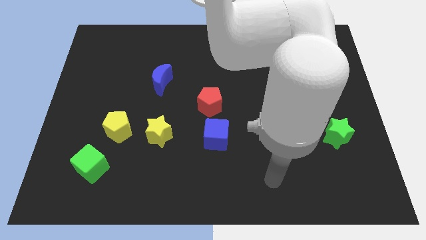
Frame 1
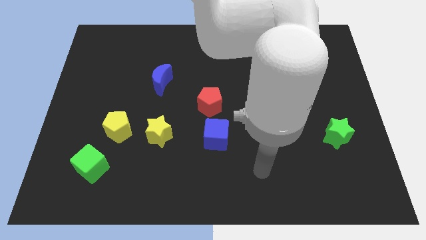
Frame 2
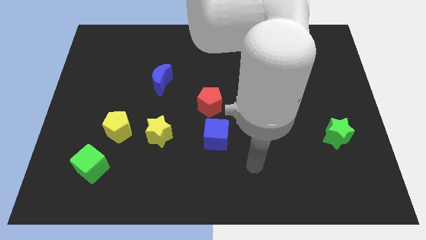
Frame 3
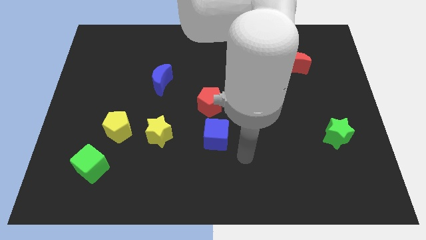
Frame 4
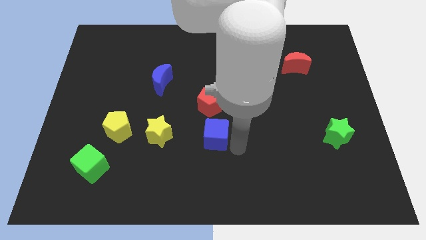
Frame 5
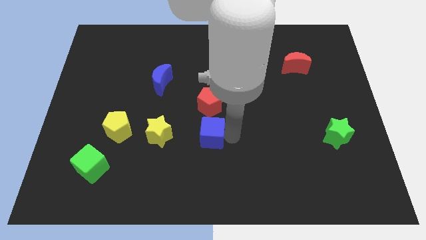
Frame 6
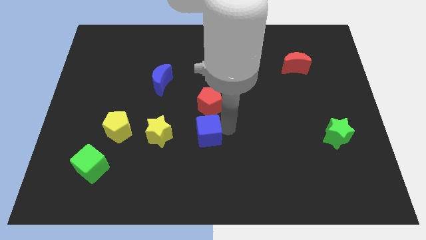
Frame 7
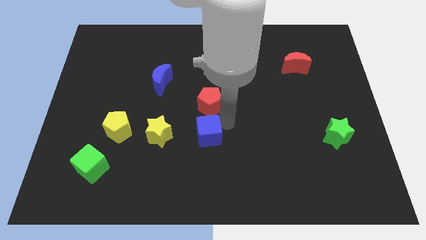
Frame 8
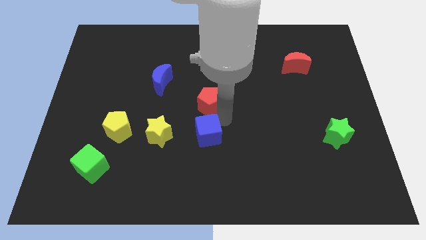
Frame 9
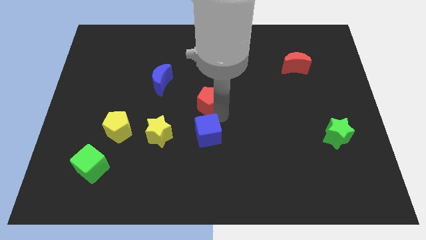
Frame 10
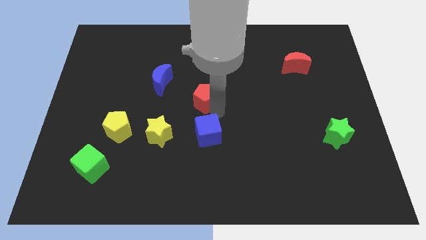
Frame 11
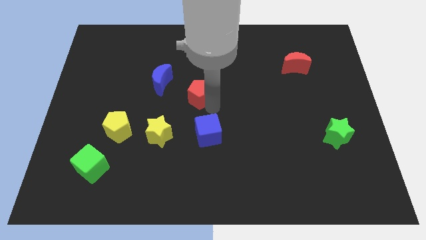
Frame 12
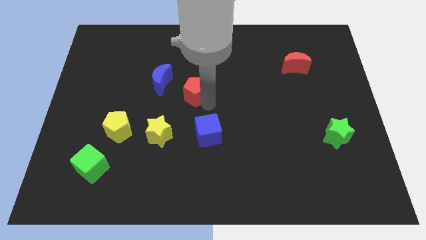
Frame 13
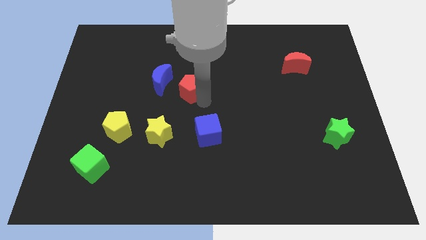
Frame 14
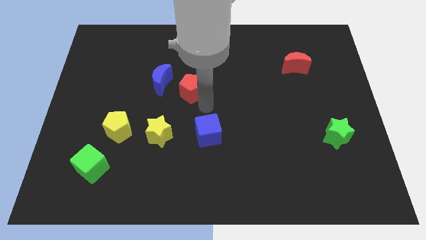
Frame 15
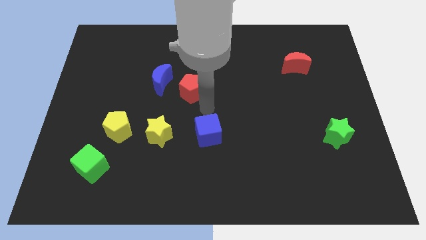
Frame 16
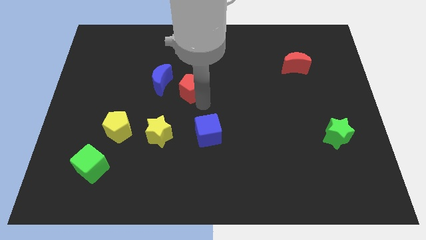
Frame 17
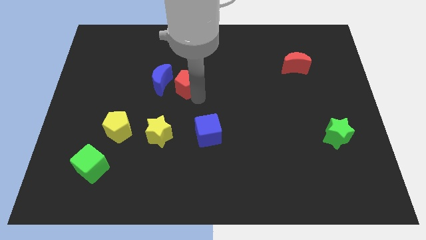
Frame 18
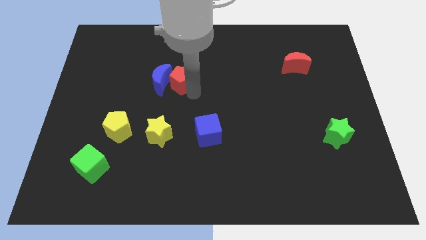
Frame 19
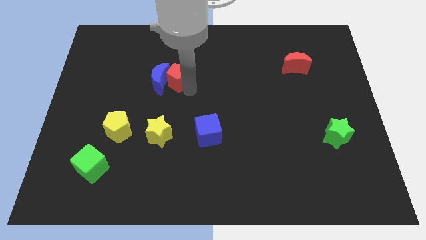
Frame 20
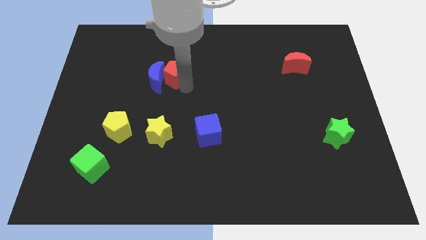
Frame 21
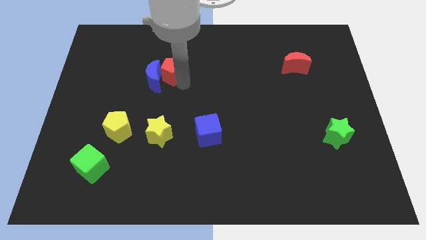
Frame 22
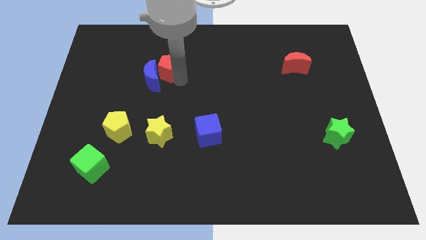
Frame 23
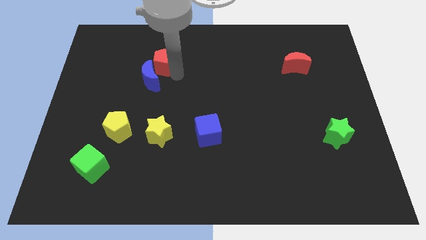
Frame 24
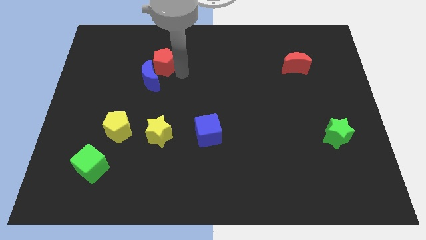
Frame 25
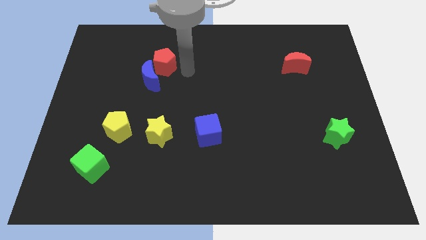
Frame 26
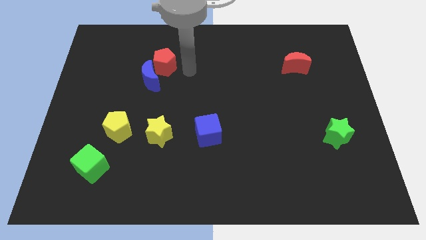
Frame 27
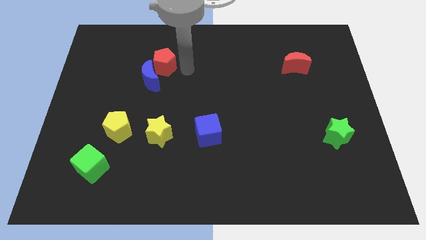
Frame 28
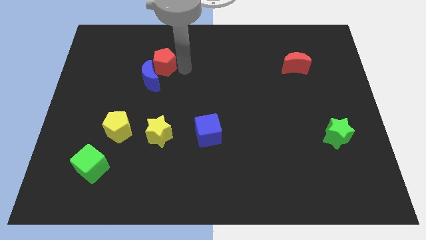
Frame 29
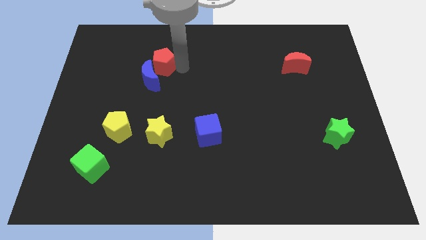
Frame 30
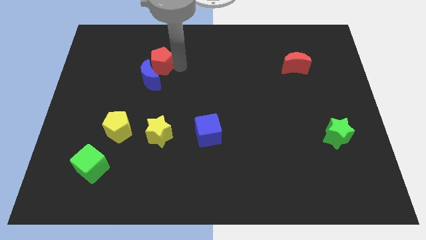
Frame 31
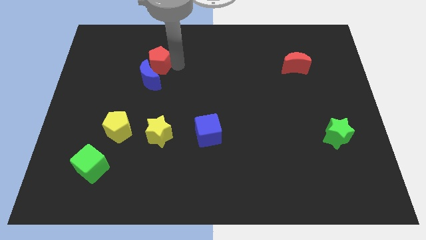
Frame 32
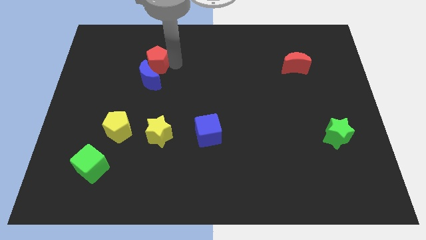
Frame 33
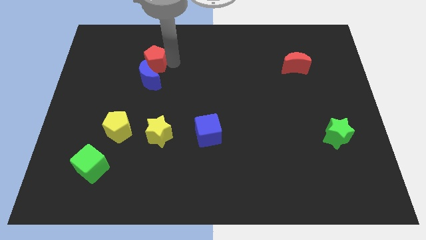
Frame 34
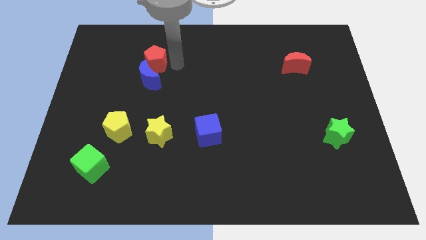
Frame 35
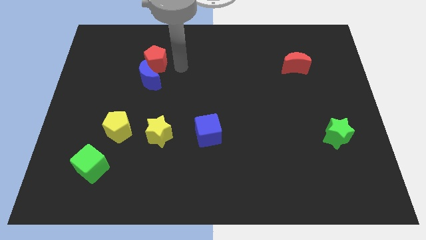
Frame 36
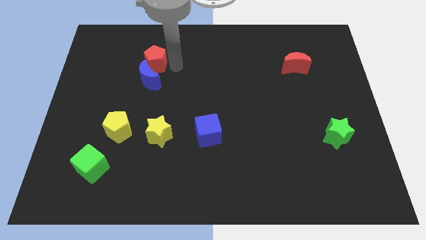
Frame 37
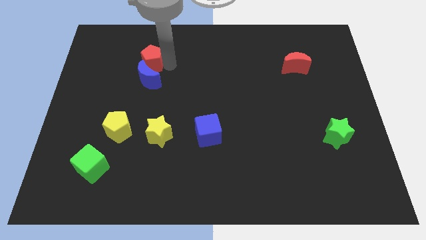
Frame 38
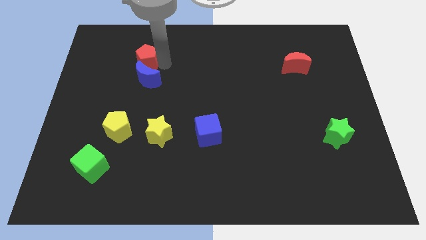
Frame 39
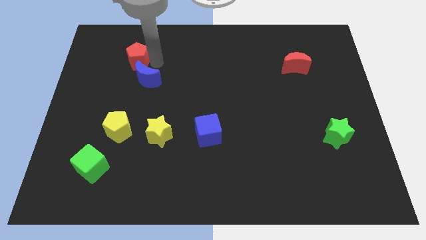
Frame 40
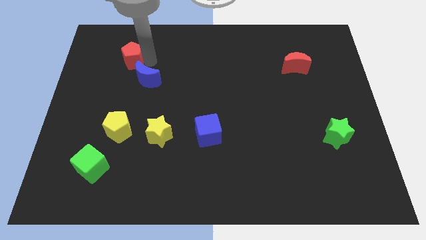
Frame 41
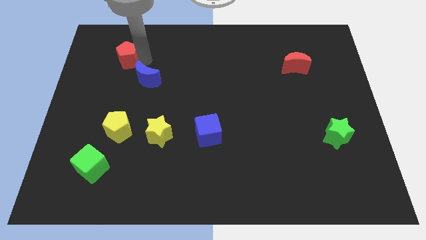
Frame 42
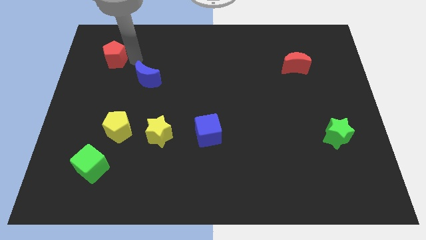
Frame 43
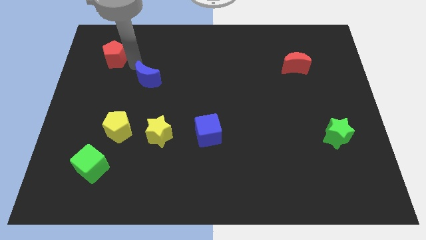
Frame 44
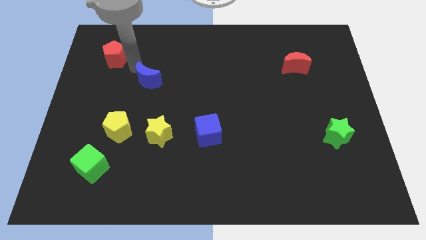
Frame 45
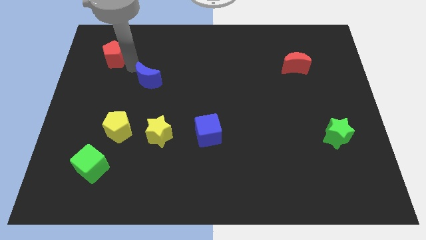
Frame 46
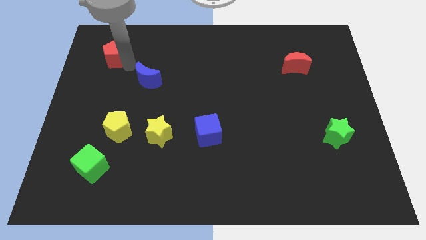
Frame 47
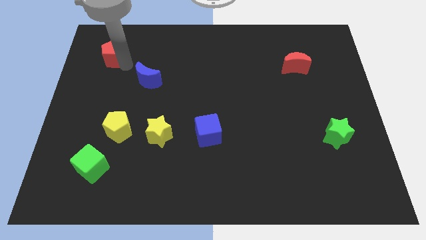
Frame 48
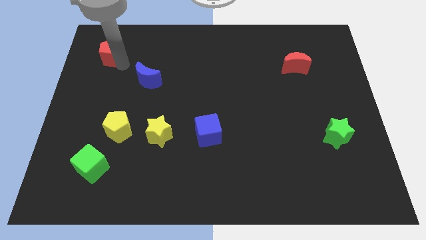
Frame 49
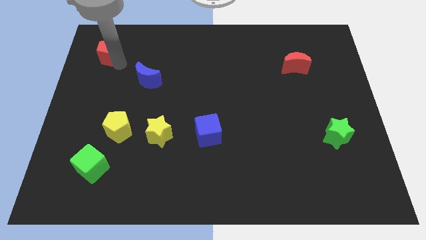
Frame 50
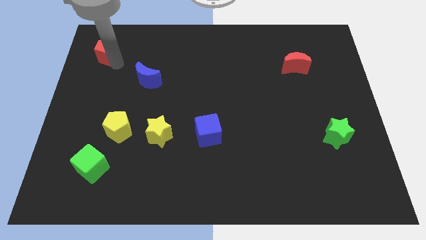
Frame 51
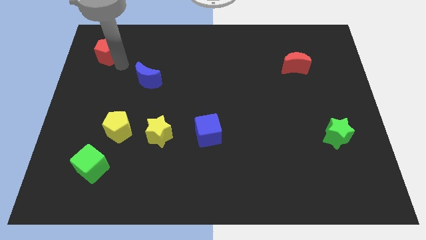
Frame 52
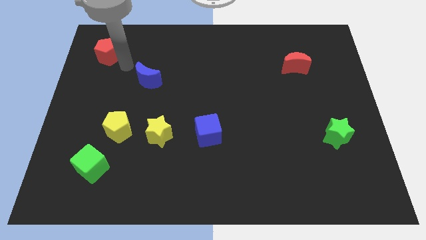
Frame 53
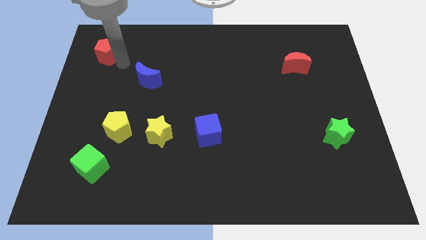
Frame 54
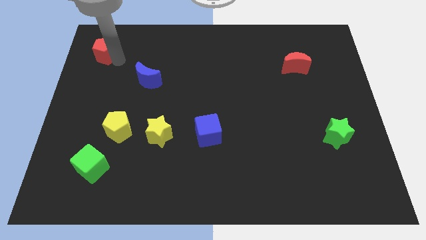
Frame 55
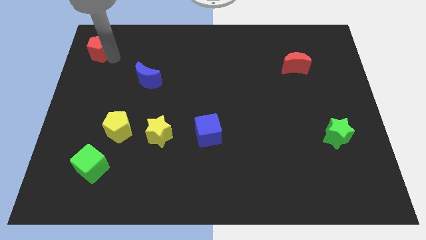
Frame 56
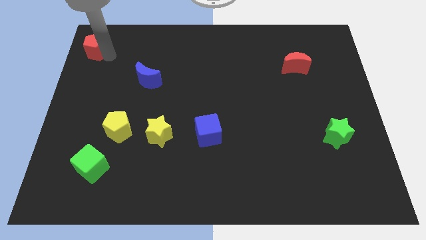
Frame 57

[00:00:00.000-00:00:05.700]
move the red pentagon to the top left corner
